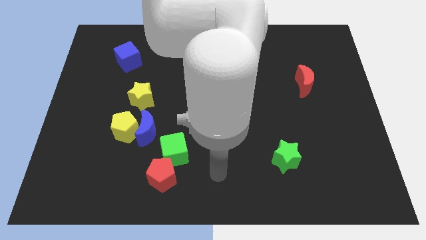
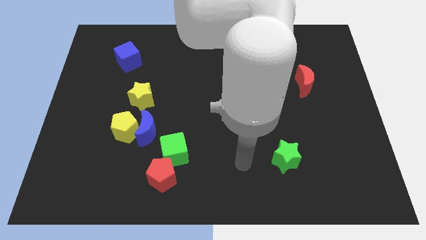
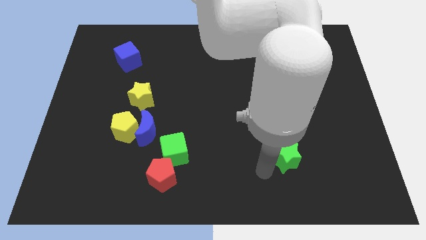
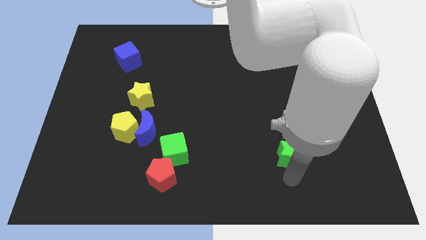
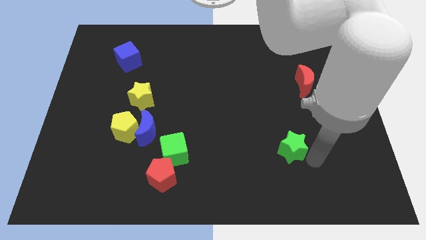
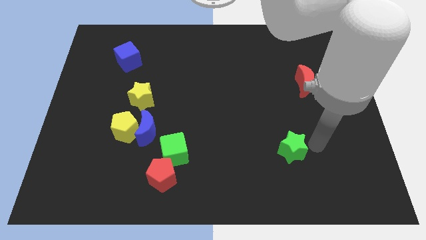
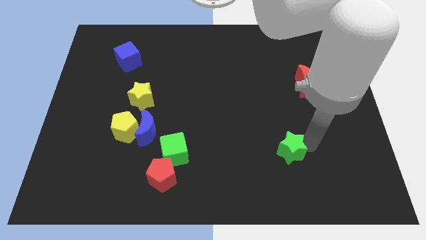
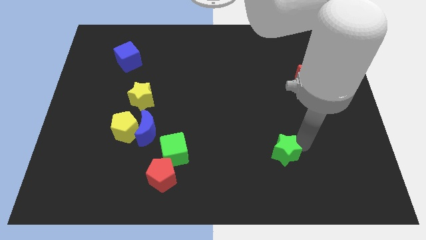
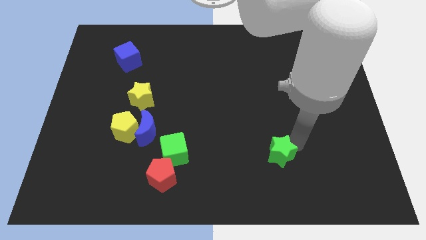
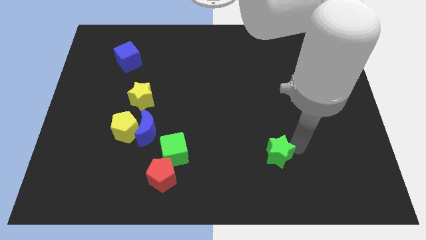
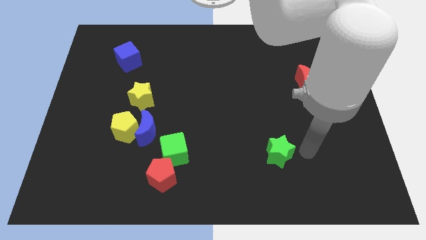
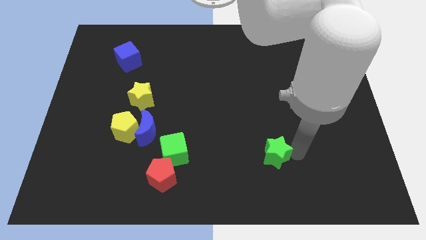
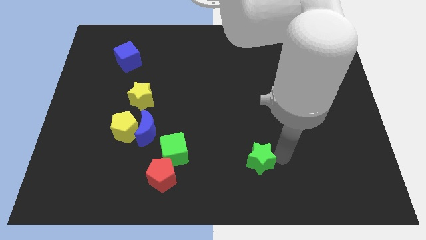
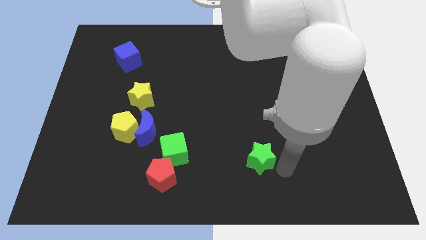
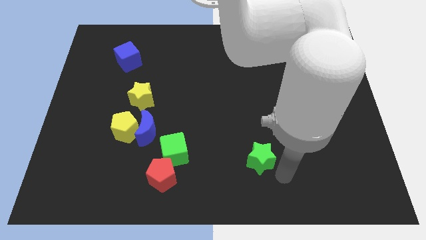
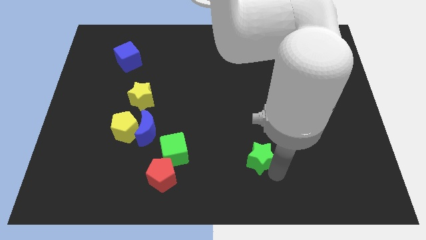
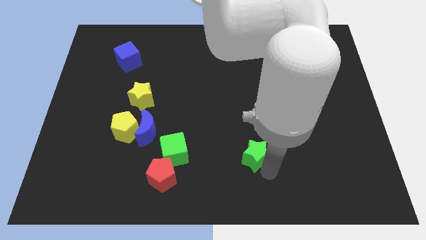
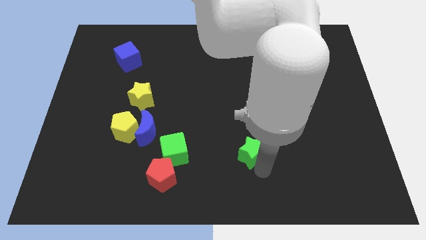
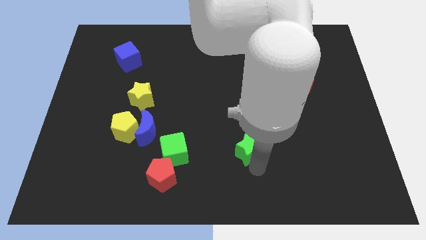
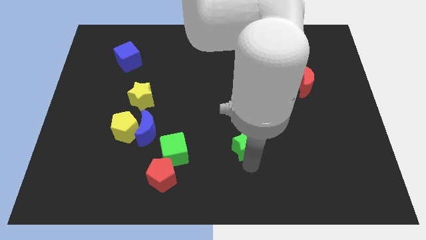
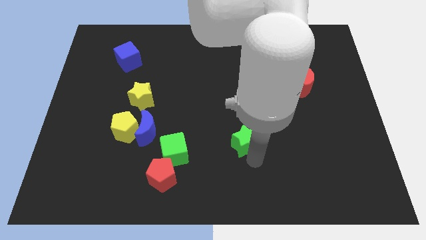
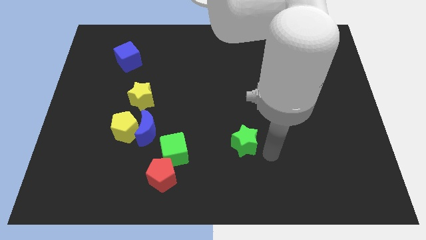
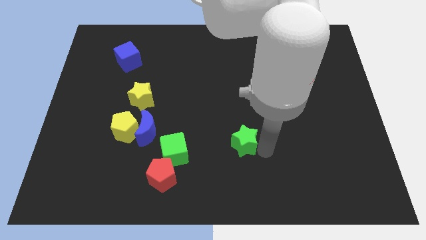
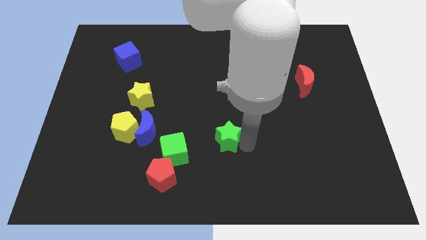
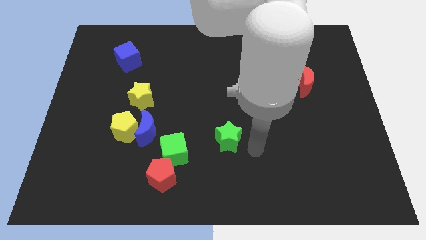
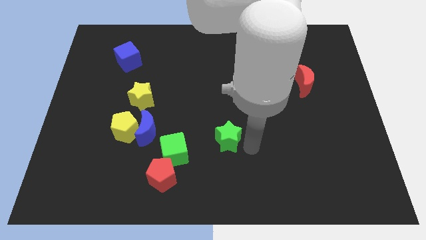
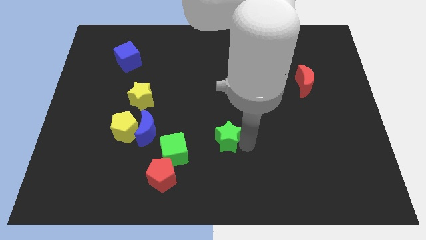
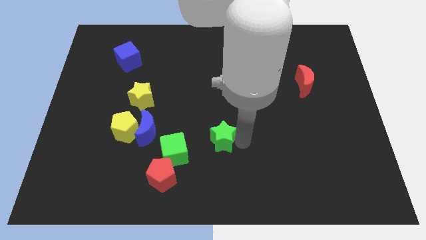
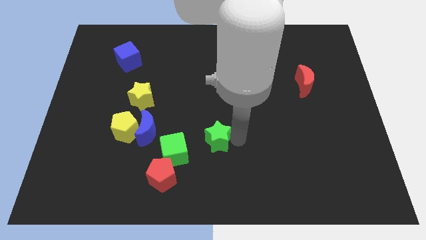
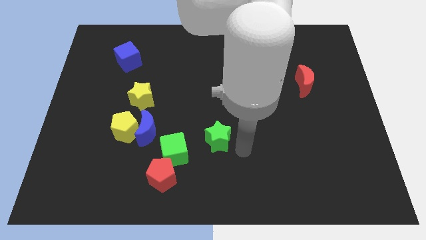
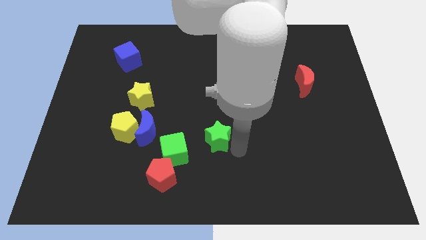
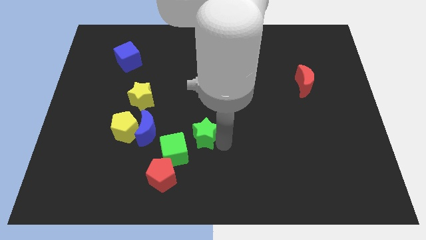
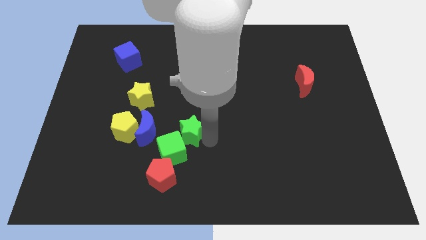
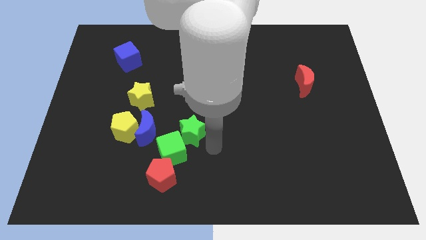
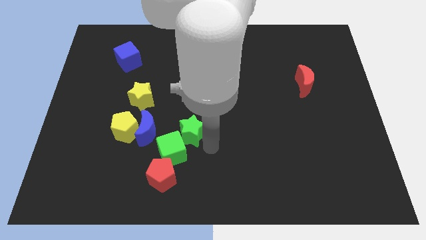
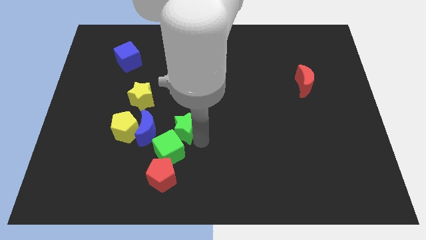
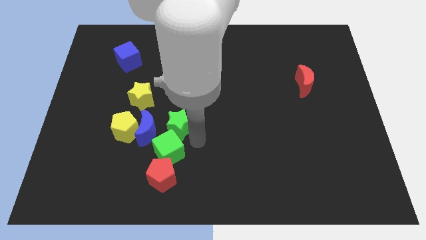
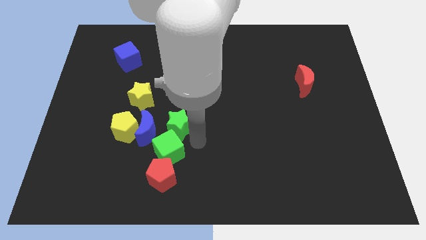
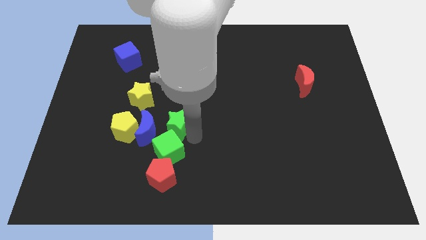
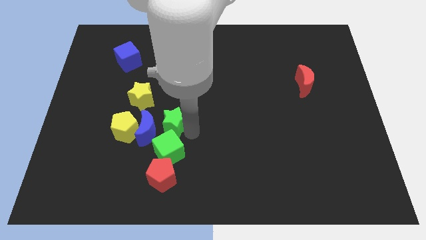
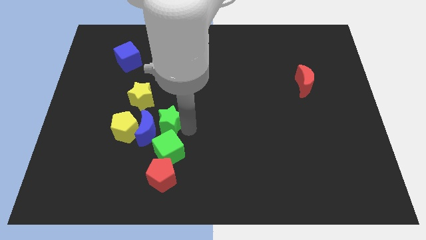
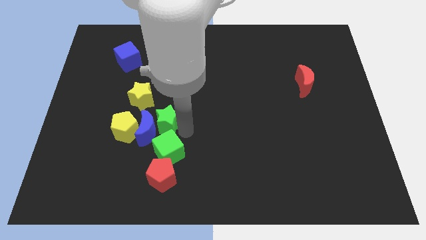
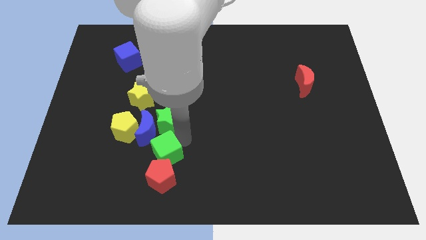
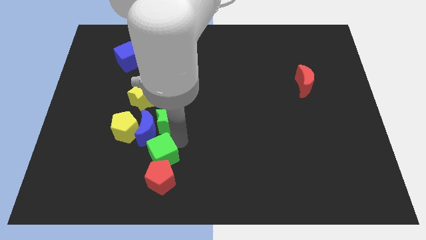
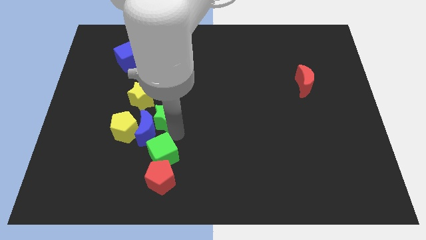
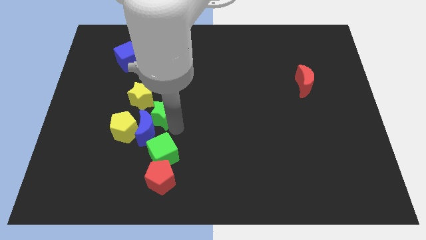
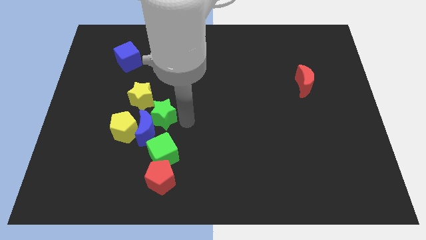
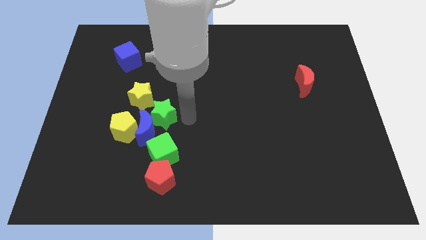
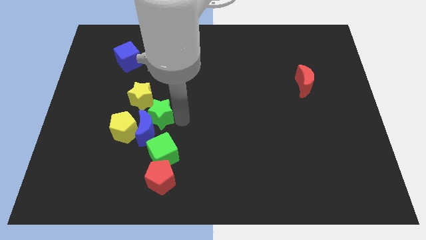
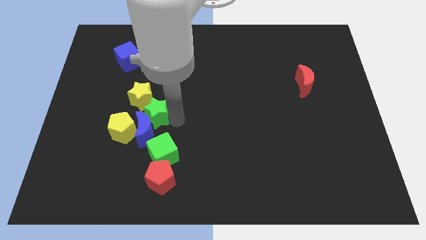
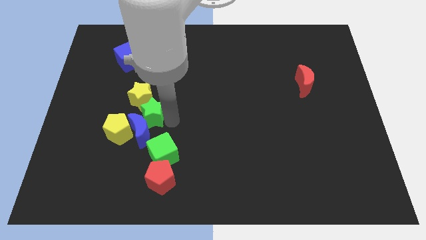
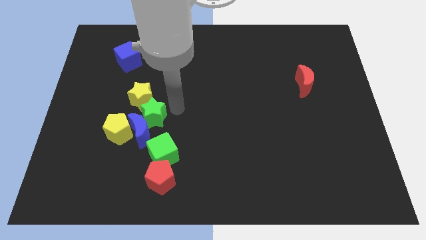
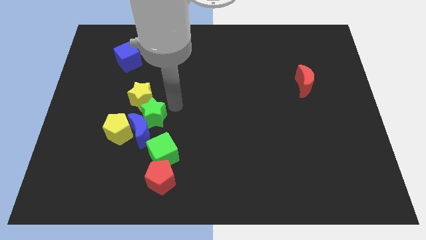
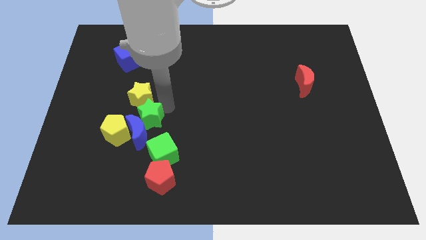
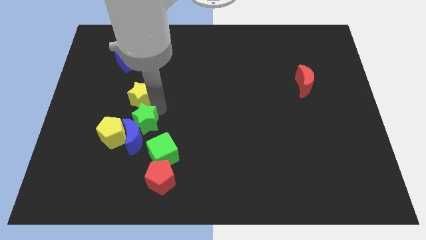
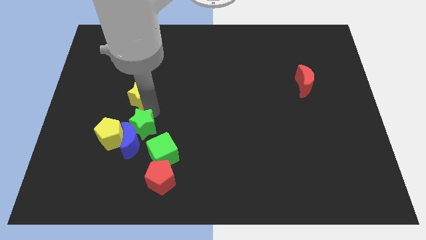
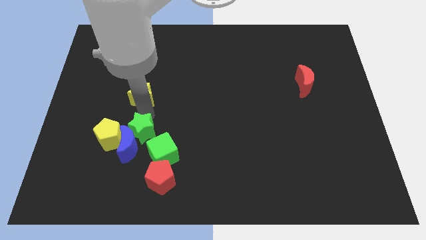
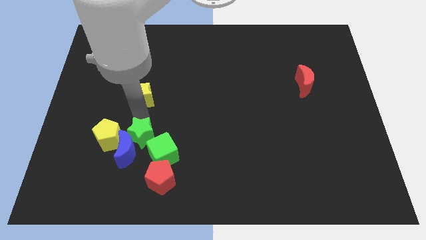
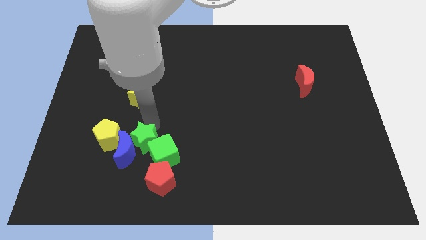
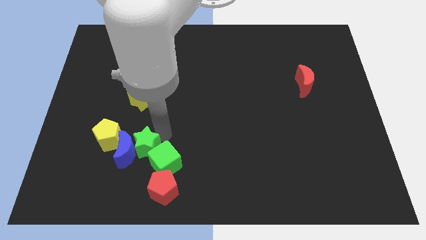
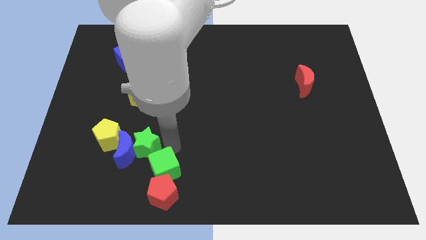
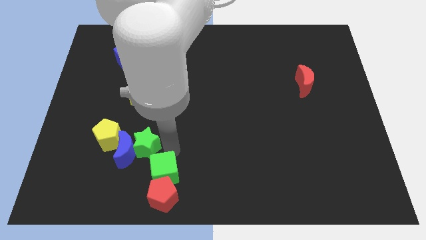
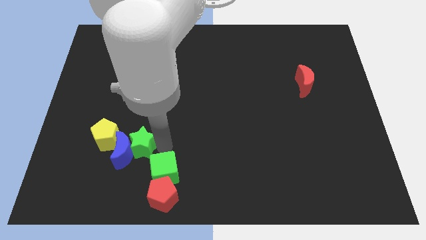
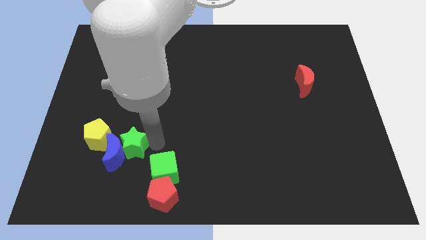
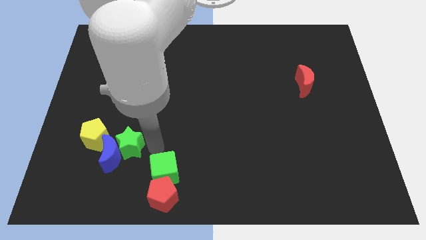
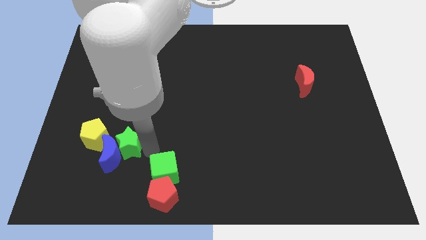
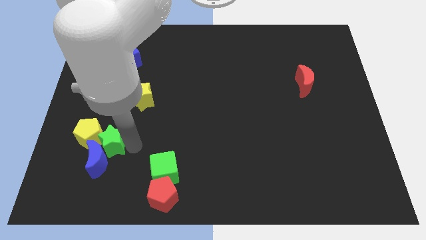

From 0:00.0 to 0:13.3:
move the green star next to the yellow pentagon

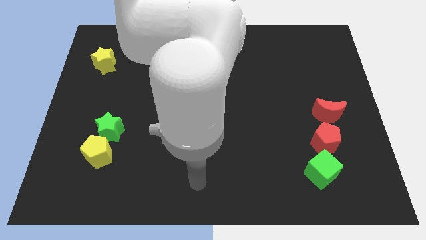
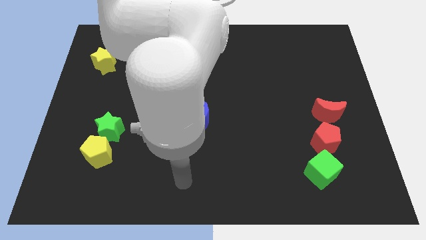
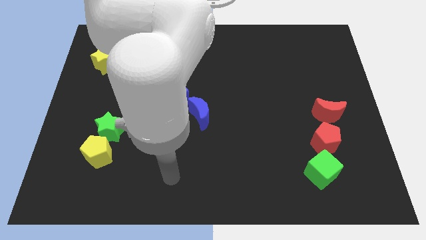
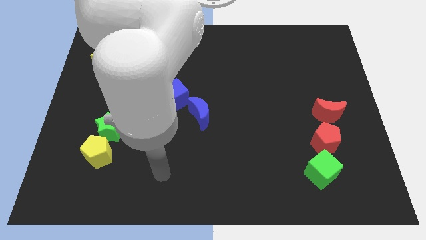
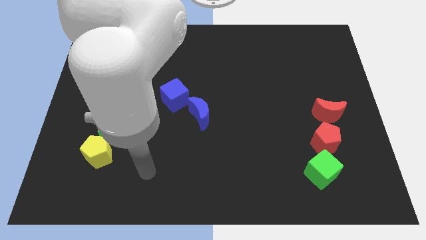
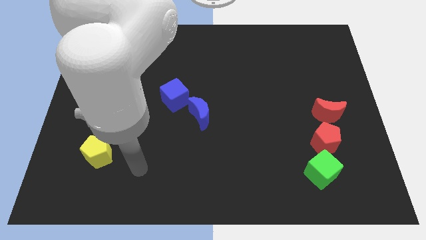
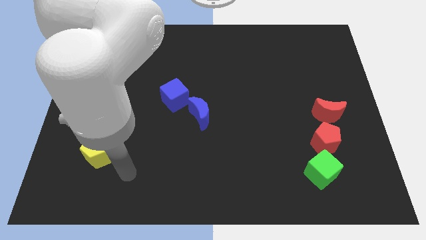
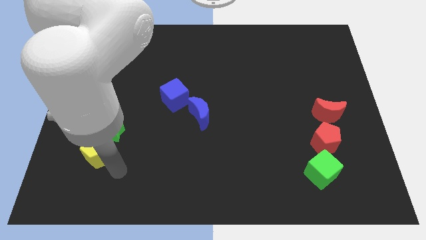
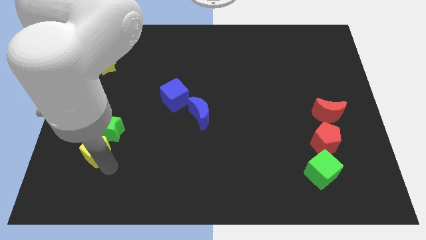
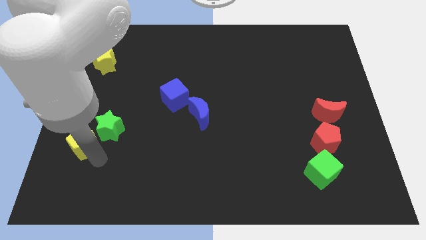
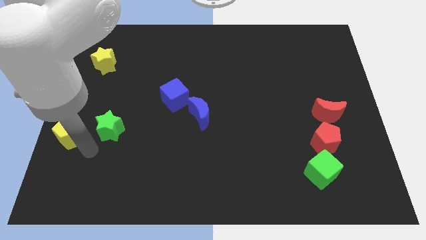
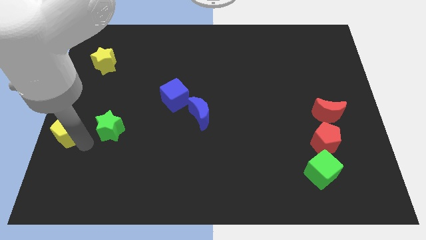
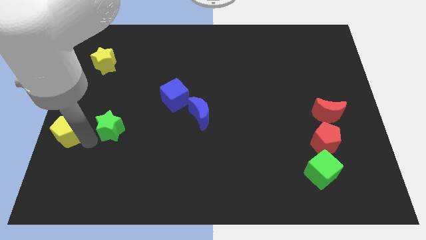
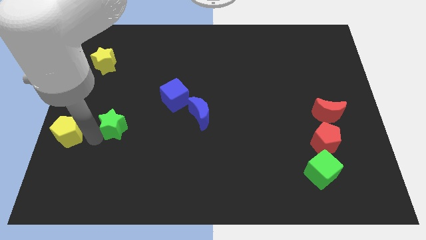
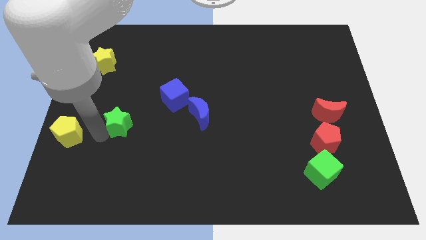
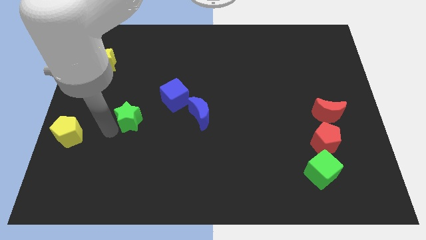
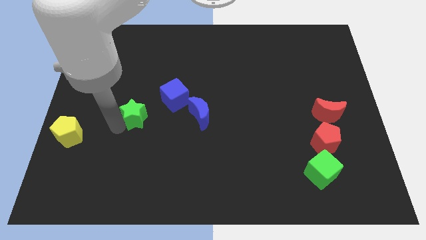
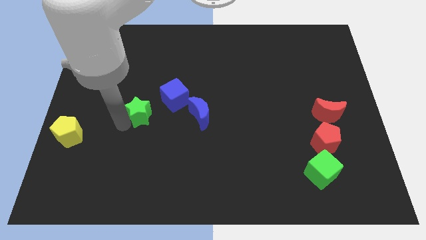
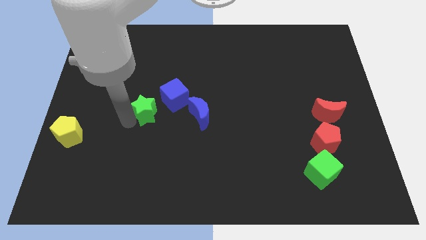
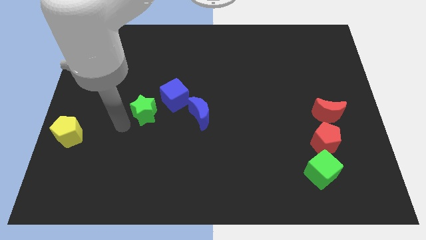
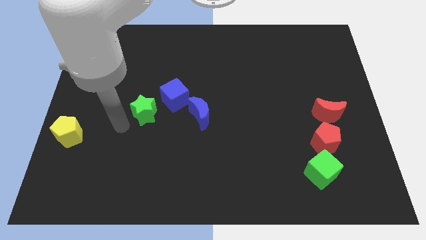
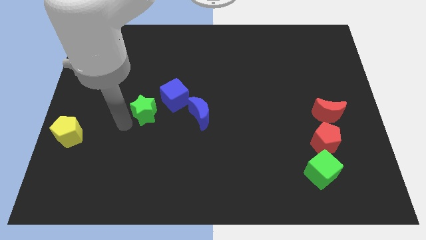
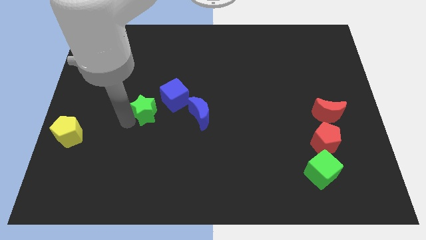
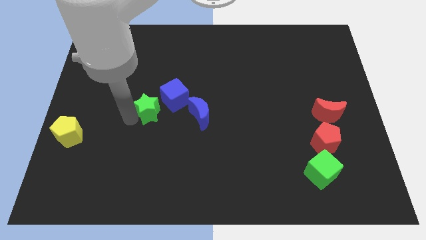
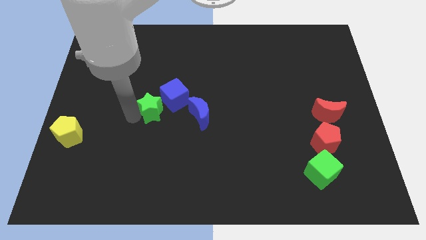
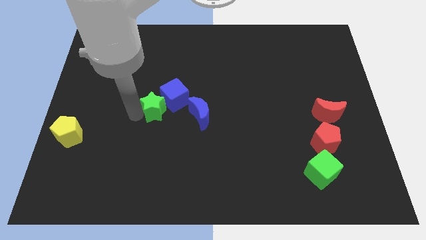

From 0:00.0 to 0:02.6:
move the green star towards the blue cube
